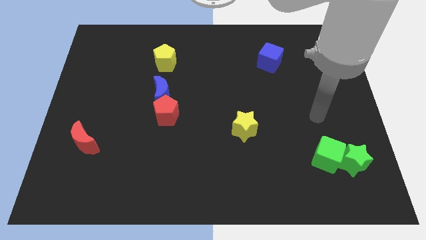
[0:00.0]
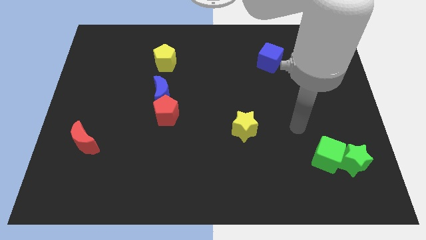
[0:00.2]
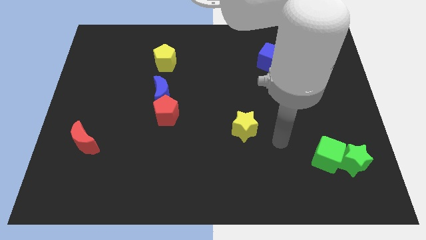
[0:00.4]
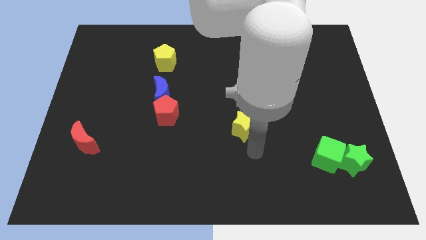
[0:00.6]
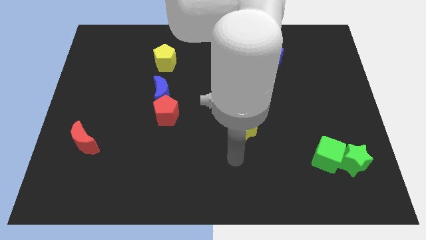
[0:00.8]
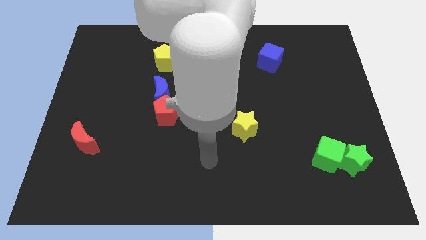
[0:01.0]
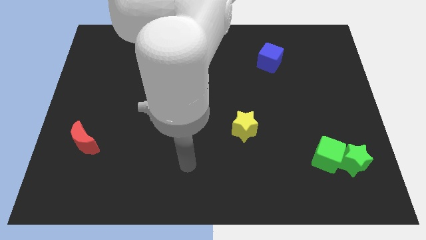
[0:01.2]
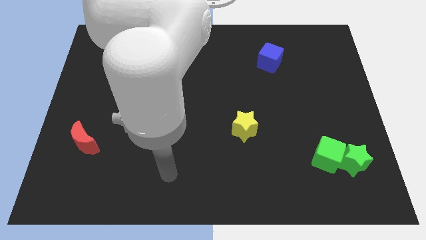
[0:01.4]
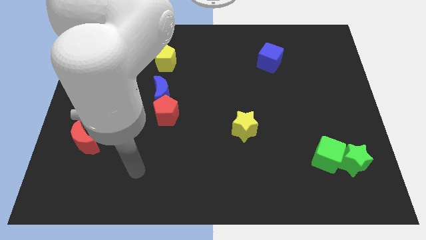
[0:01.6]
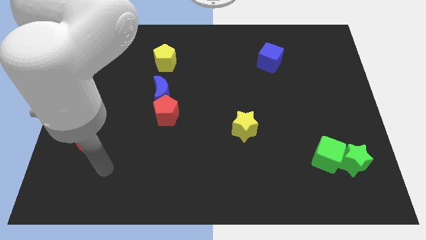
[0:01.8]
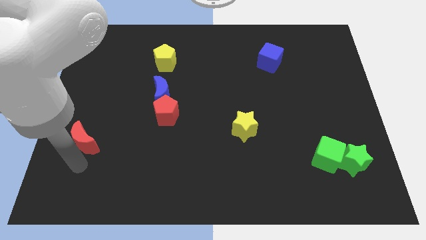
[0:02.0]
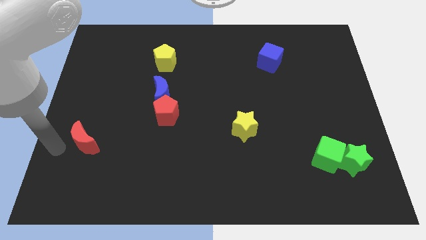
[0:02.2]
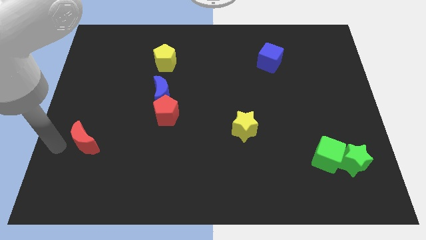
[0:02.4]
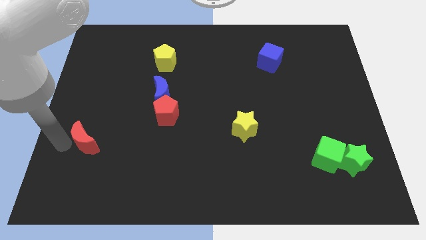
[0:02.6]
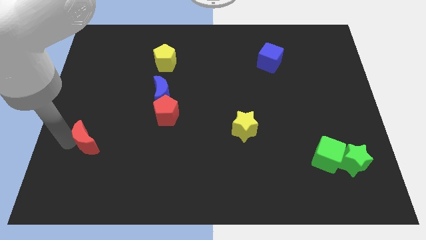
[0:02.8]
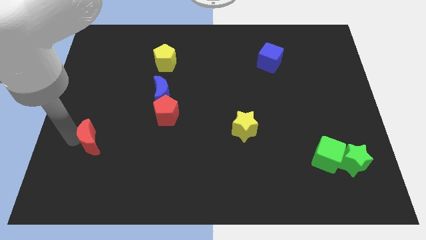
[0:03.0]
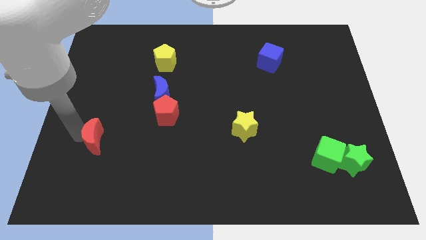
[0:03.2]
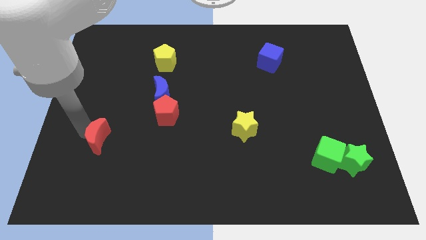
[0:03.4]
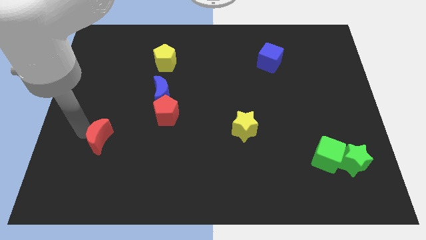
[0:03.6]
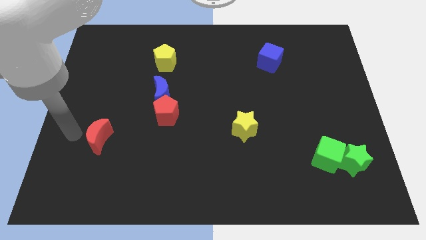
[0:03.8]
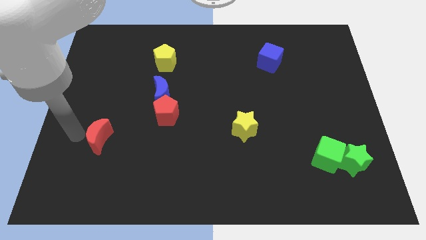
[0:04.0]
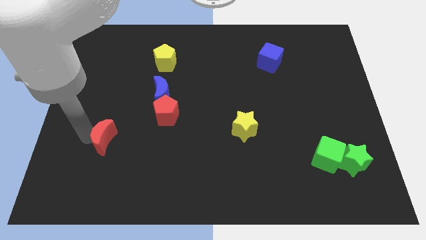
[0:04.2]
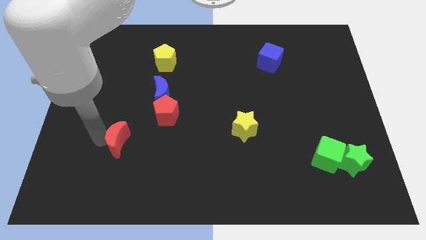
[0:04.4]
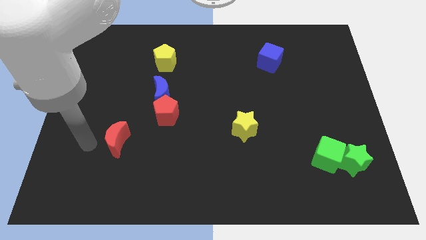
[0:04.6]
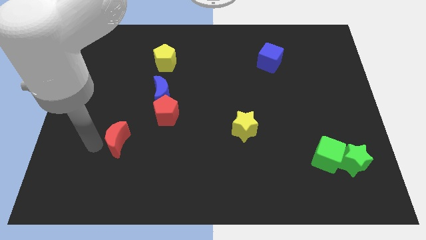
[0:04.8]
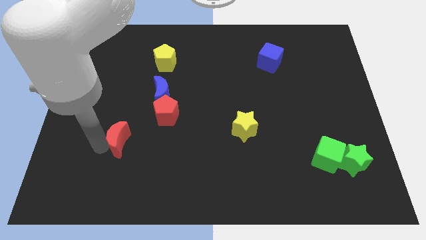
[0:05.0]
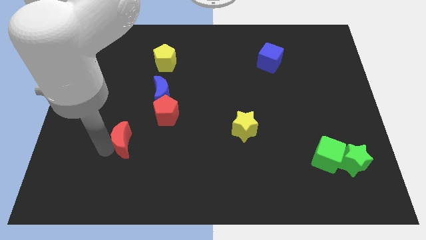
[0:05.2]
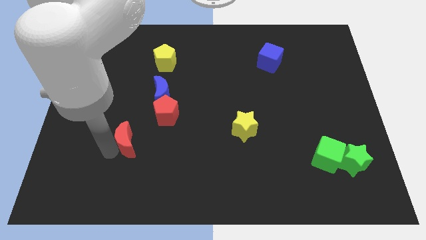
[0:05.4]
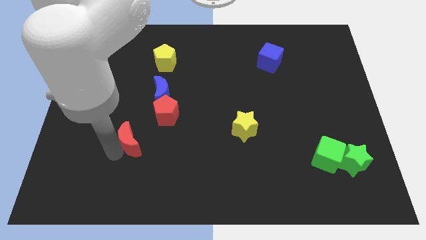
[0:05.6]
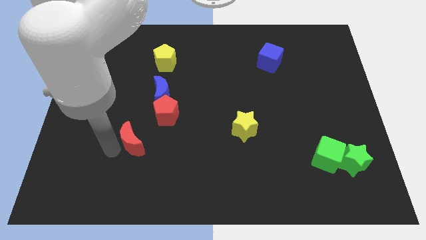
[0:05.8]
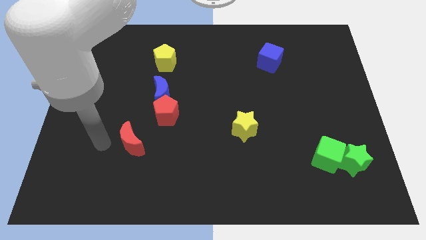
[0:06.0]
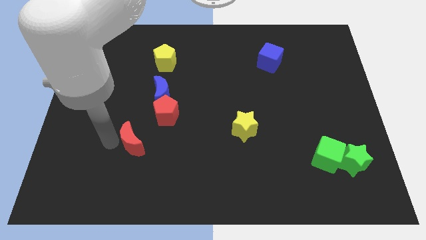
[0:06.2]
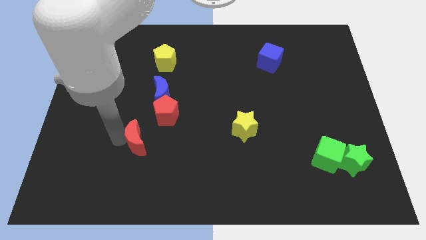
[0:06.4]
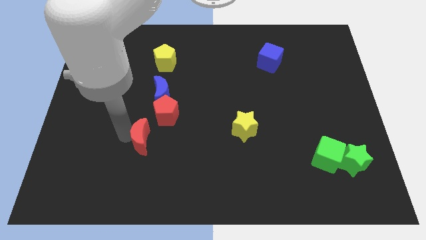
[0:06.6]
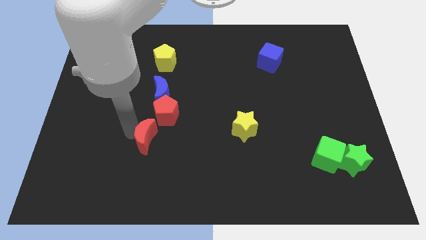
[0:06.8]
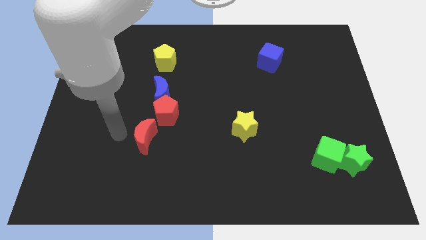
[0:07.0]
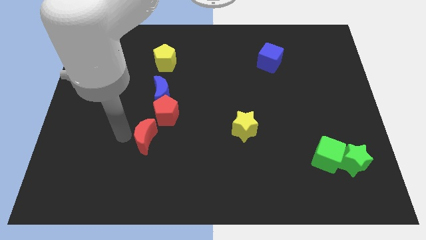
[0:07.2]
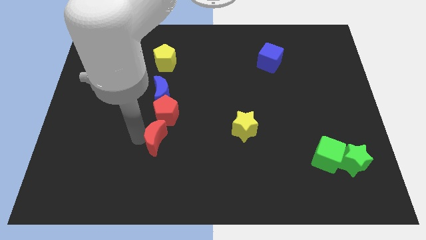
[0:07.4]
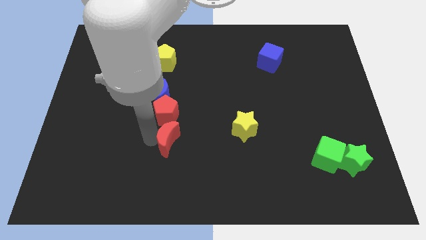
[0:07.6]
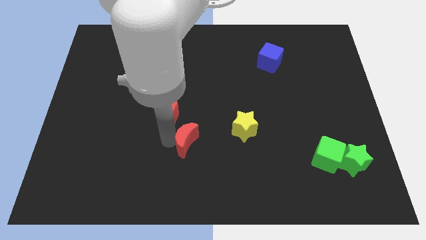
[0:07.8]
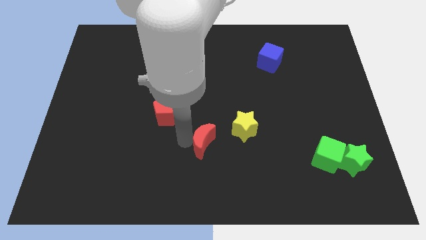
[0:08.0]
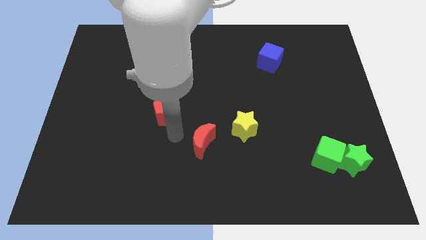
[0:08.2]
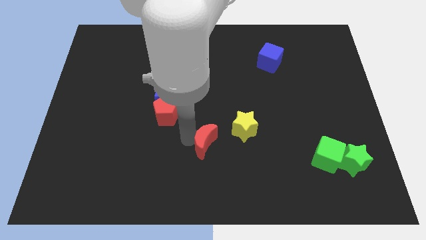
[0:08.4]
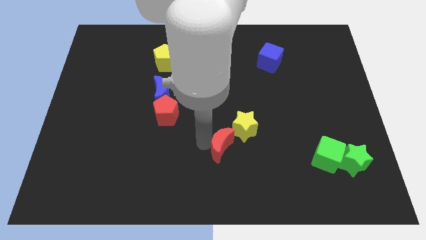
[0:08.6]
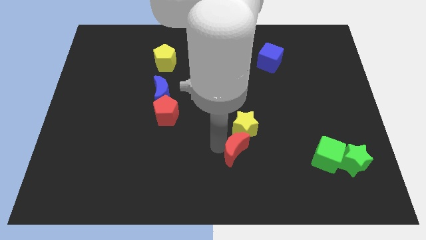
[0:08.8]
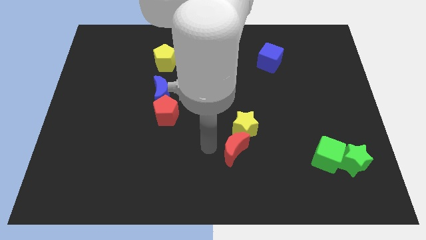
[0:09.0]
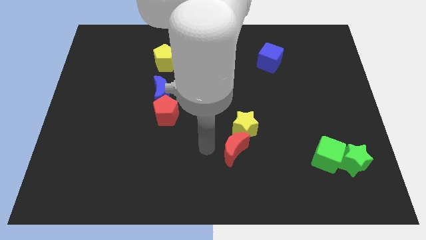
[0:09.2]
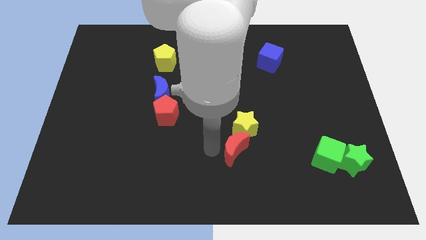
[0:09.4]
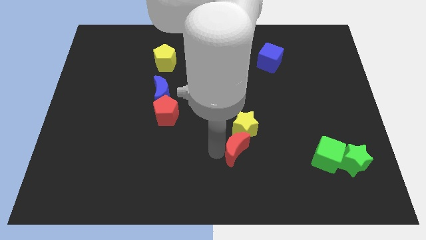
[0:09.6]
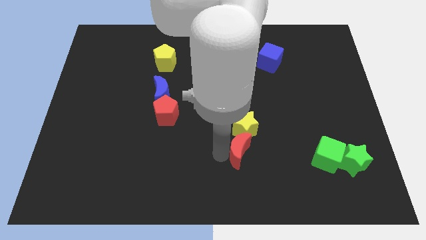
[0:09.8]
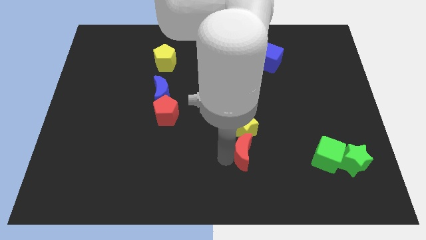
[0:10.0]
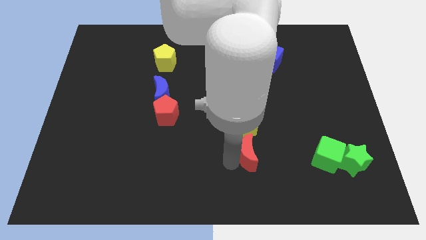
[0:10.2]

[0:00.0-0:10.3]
slide the red moon diagonally down and to the right of the yellow star

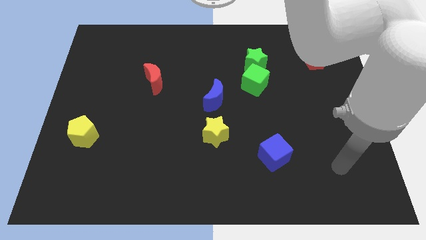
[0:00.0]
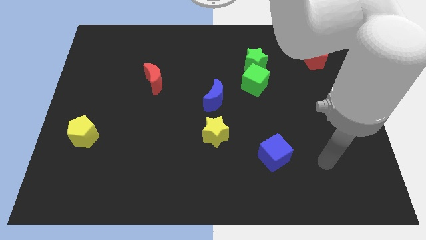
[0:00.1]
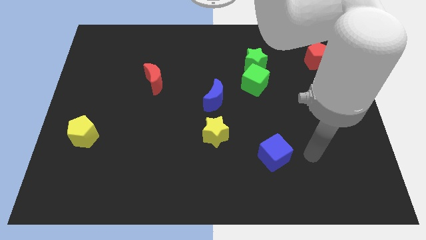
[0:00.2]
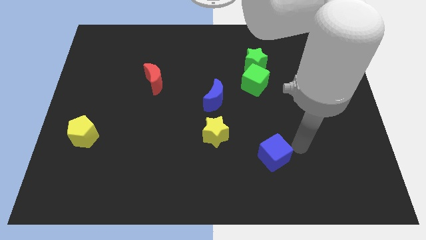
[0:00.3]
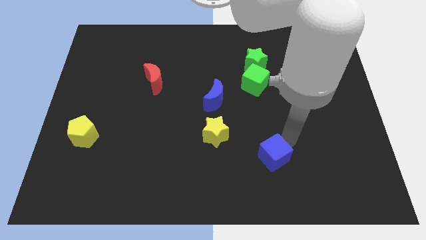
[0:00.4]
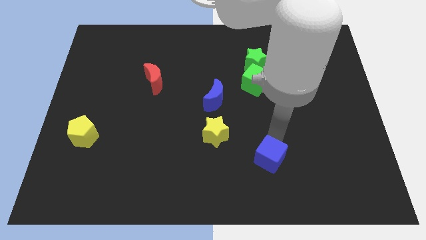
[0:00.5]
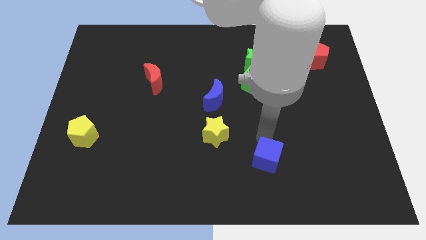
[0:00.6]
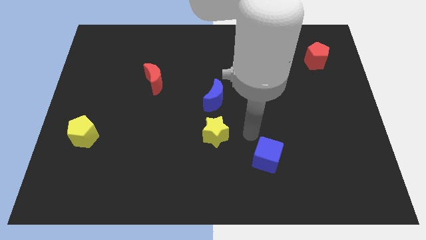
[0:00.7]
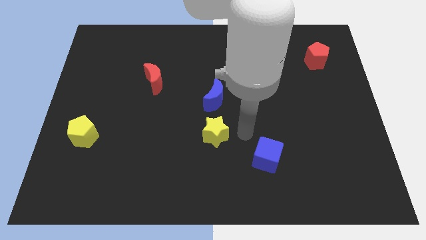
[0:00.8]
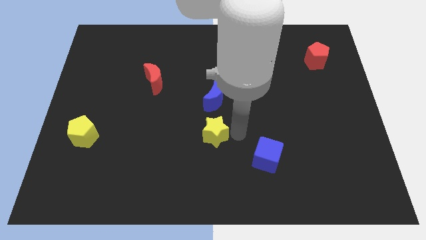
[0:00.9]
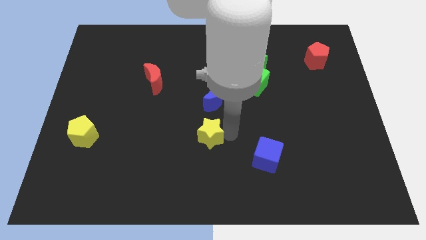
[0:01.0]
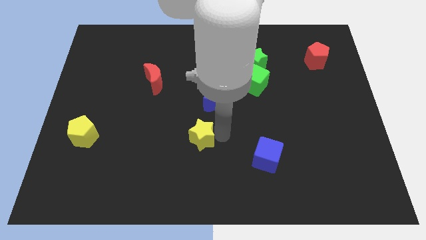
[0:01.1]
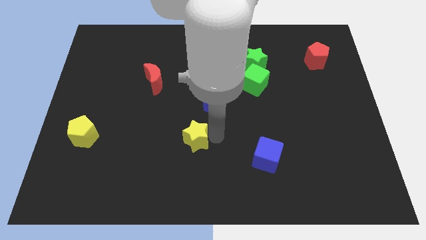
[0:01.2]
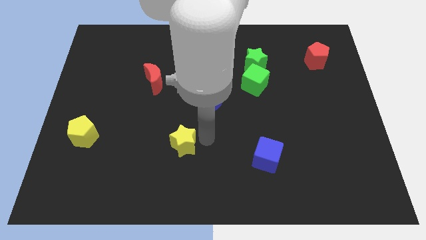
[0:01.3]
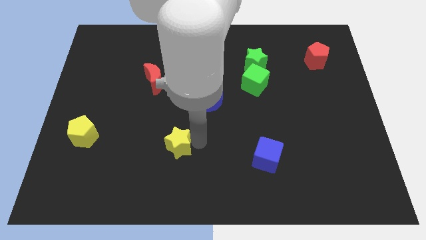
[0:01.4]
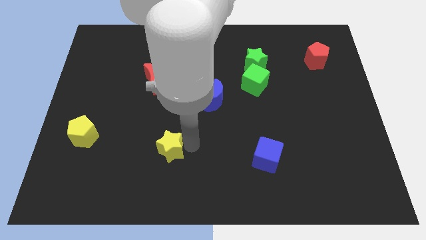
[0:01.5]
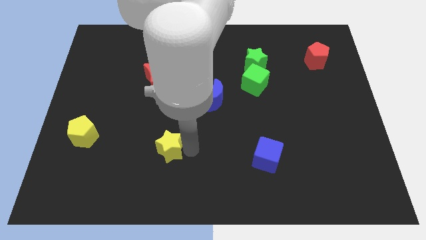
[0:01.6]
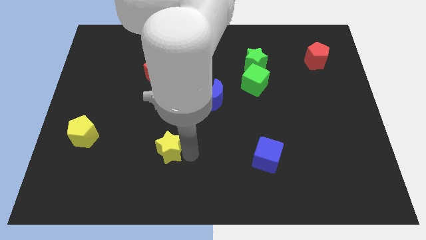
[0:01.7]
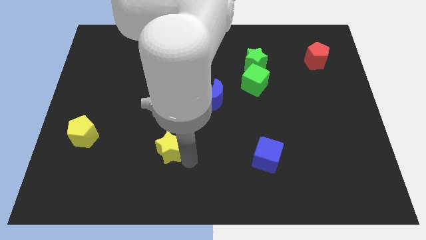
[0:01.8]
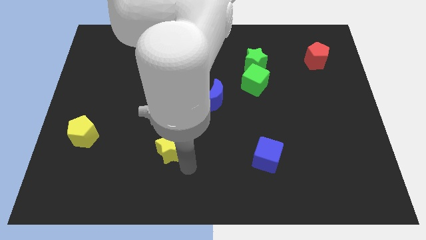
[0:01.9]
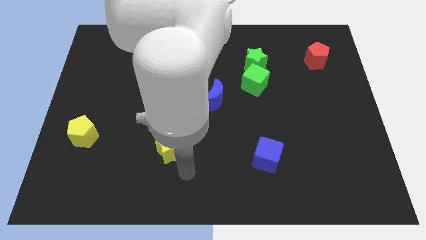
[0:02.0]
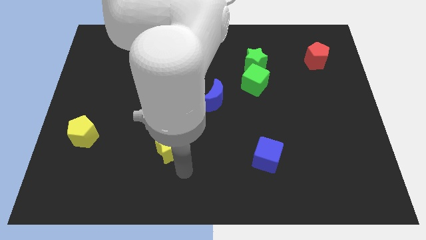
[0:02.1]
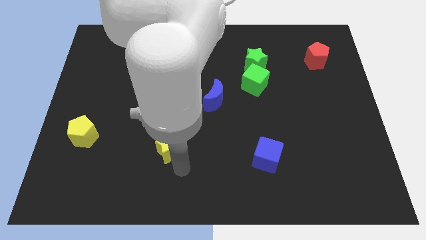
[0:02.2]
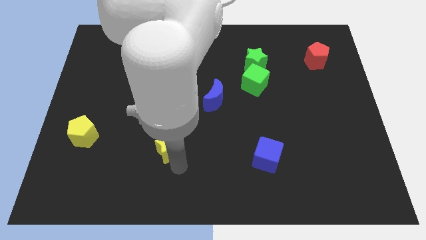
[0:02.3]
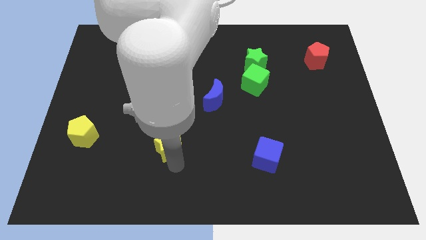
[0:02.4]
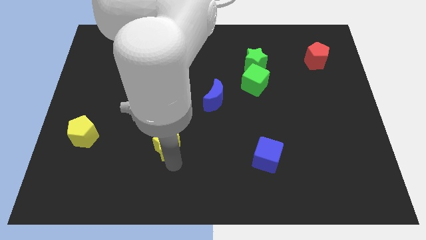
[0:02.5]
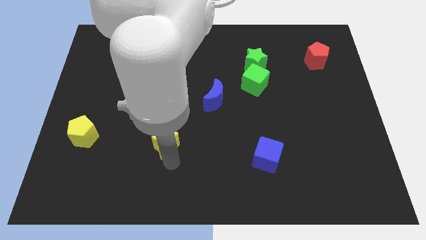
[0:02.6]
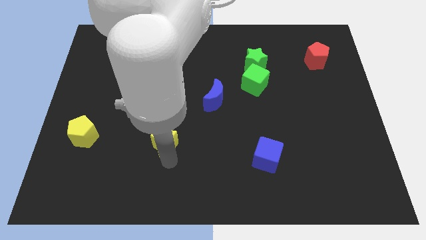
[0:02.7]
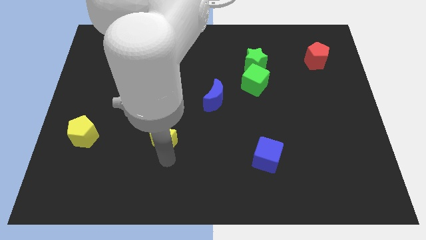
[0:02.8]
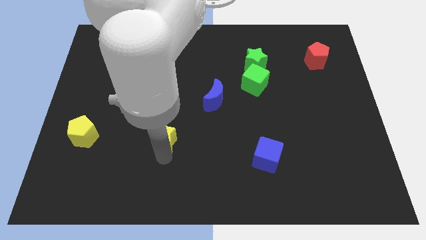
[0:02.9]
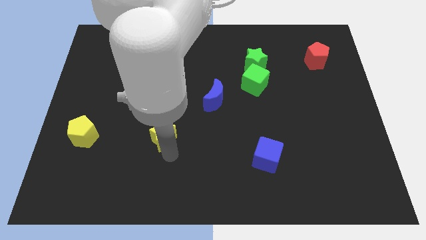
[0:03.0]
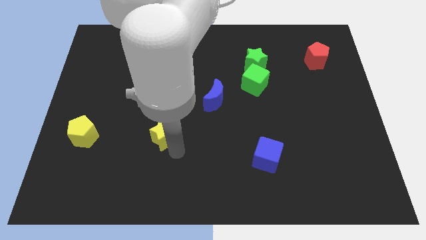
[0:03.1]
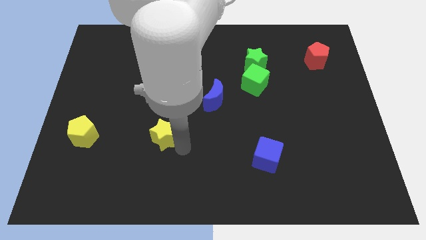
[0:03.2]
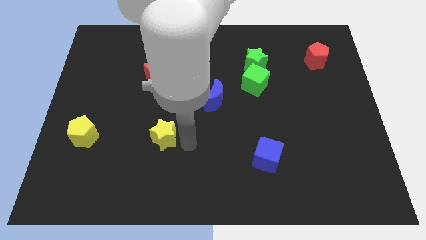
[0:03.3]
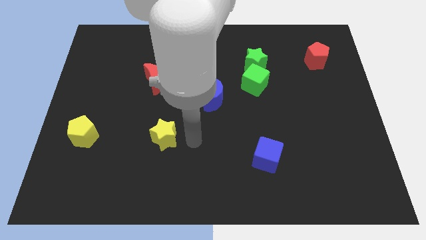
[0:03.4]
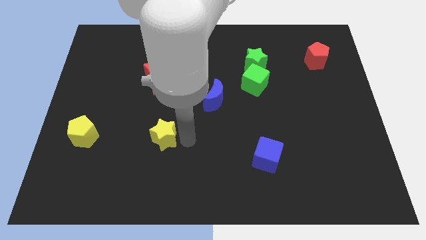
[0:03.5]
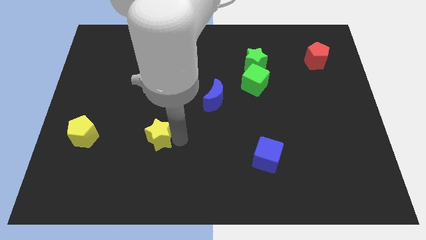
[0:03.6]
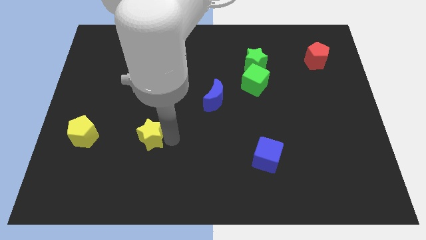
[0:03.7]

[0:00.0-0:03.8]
move the yellow star to the right side of the yellow pentagon
